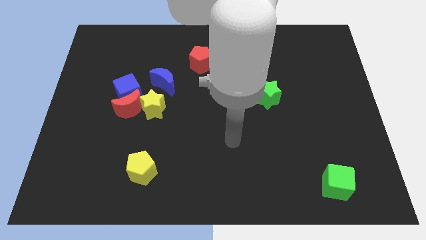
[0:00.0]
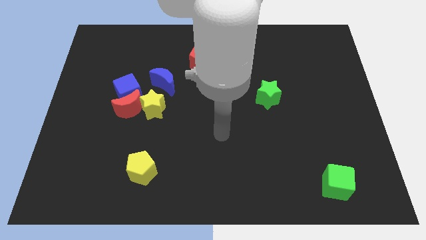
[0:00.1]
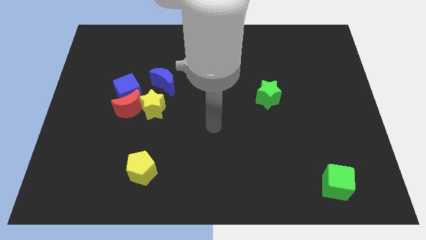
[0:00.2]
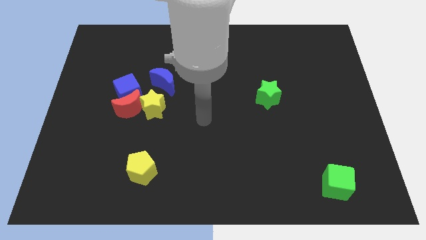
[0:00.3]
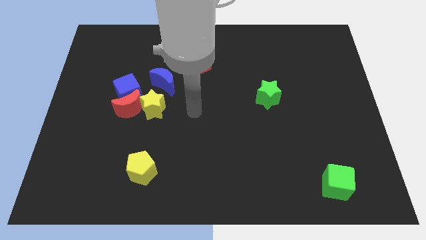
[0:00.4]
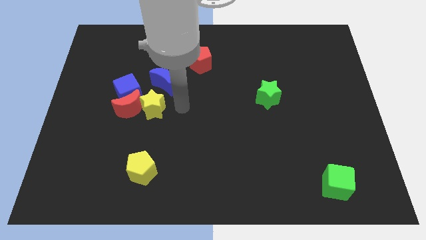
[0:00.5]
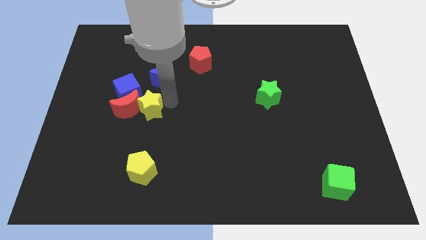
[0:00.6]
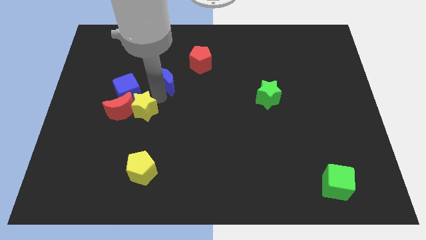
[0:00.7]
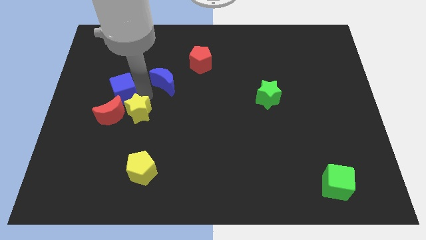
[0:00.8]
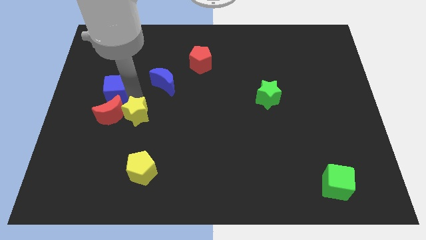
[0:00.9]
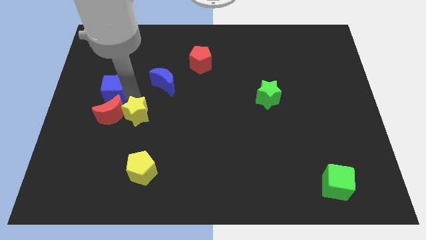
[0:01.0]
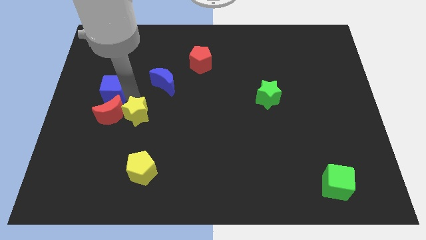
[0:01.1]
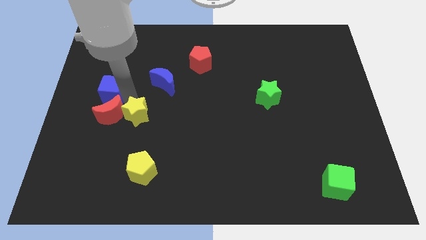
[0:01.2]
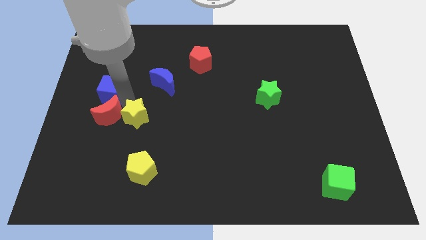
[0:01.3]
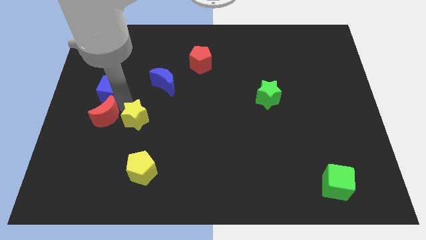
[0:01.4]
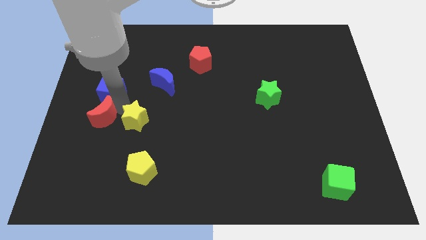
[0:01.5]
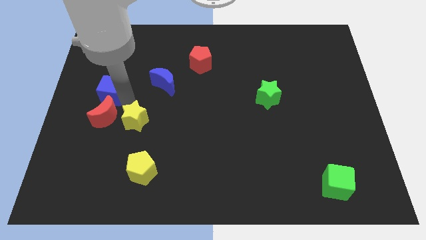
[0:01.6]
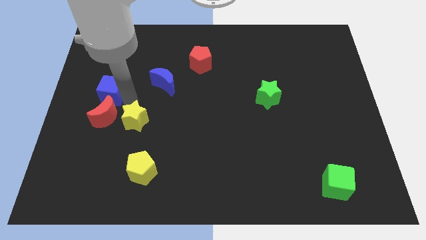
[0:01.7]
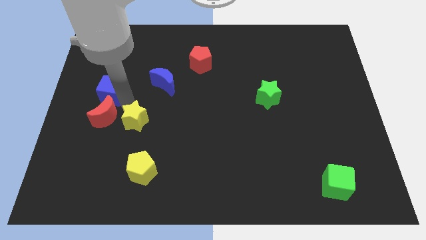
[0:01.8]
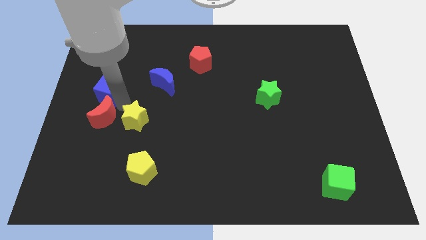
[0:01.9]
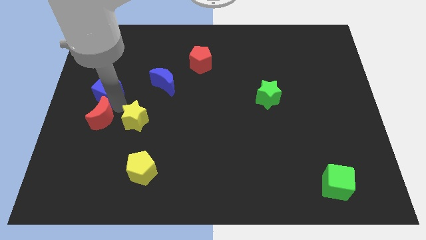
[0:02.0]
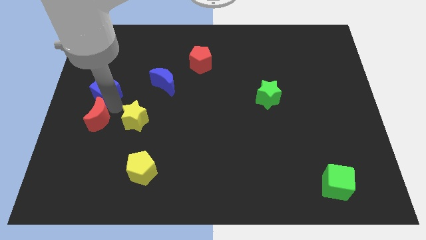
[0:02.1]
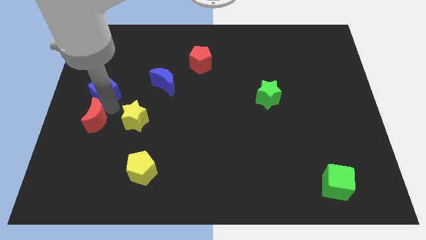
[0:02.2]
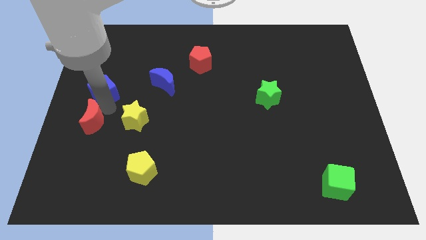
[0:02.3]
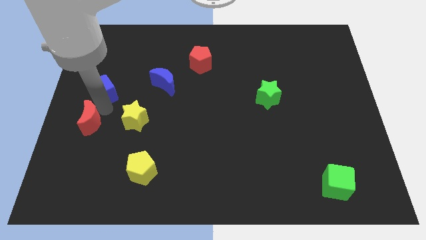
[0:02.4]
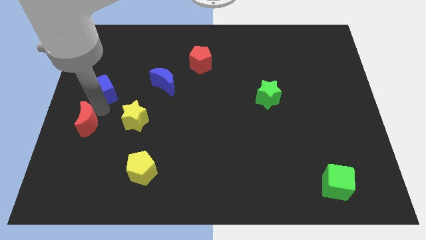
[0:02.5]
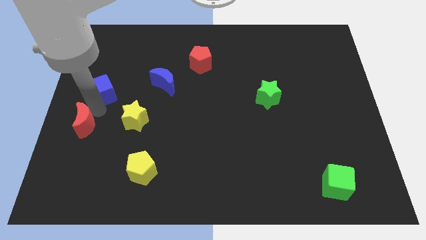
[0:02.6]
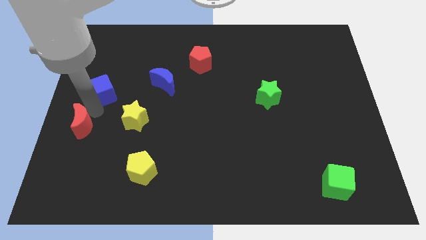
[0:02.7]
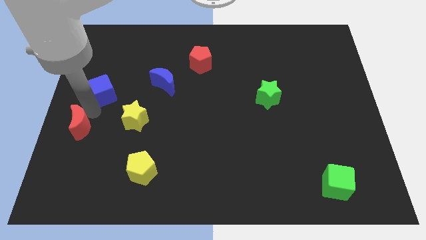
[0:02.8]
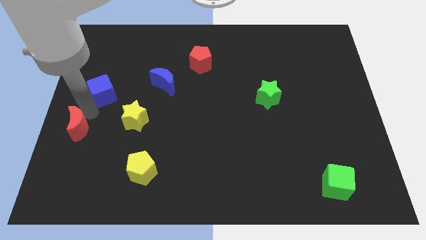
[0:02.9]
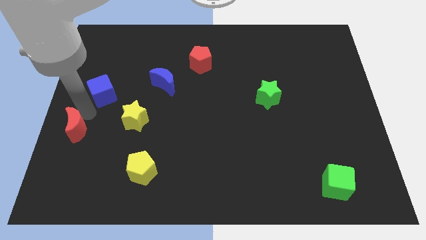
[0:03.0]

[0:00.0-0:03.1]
move the red moon away from the blue cube and yellow star

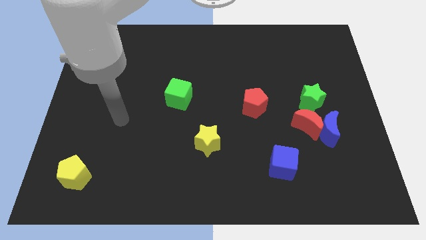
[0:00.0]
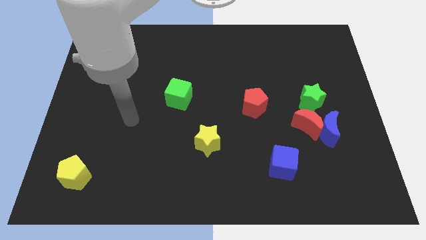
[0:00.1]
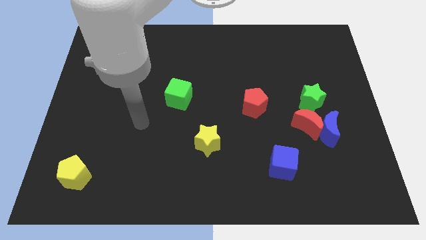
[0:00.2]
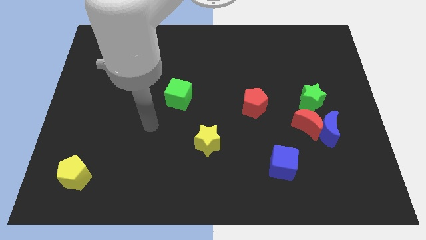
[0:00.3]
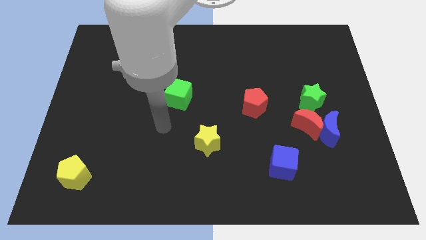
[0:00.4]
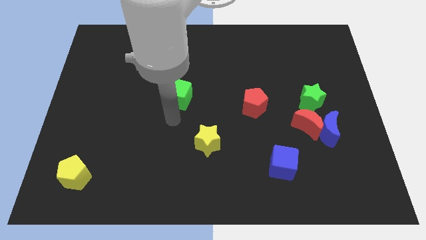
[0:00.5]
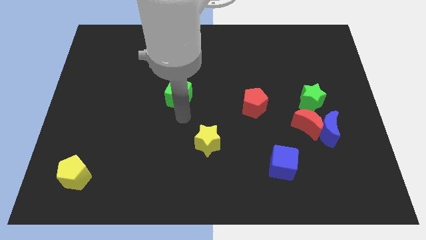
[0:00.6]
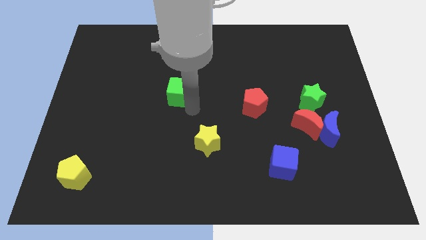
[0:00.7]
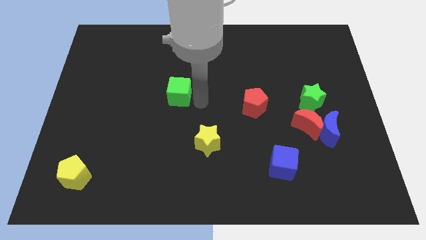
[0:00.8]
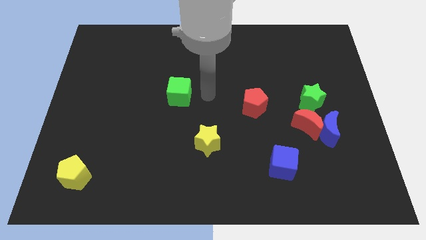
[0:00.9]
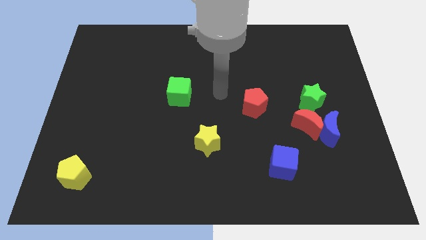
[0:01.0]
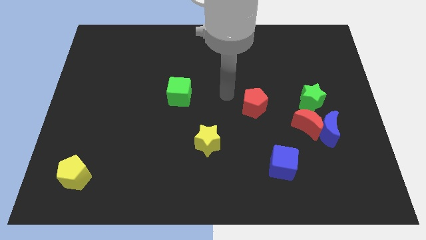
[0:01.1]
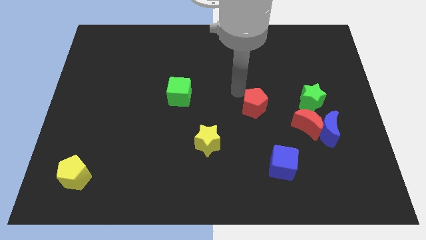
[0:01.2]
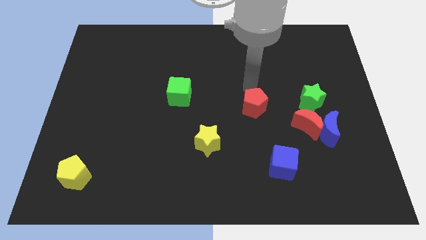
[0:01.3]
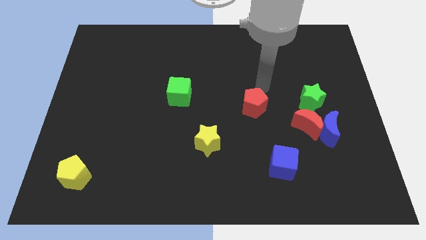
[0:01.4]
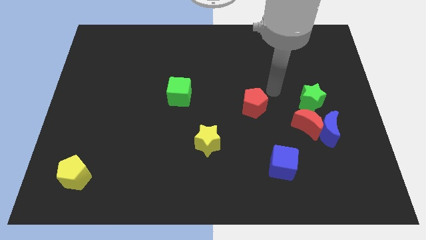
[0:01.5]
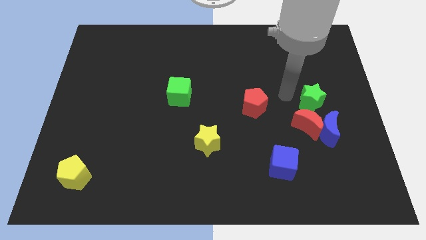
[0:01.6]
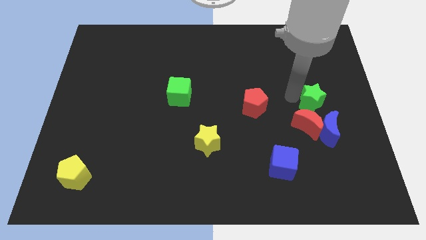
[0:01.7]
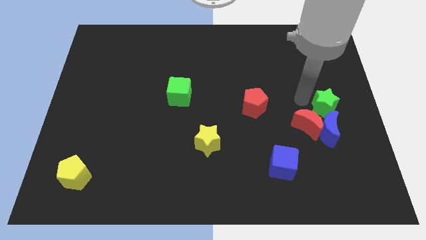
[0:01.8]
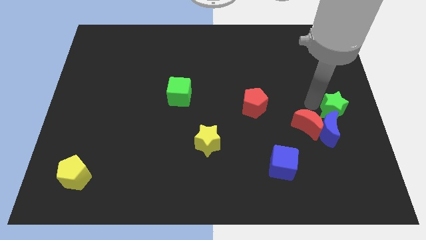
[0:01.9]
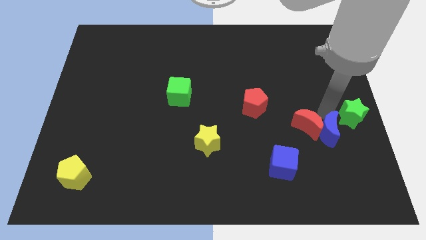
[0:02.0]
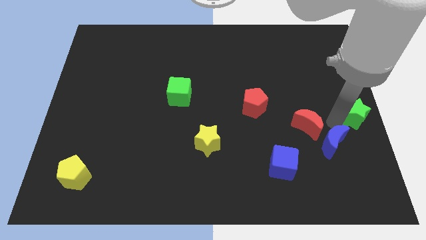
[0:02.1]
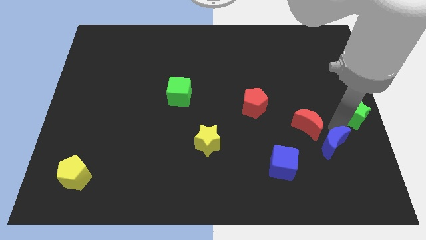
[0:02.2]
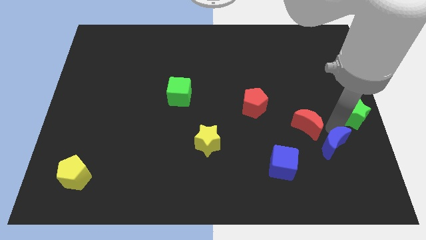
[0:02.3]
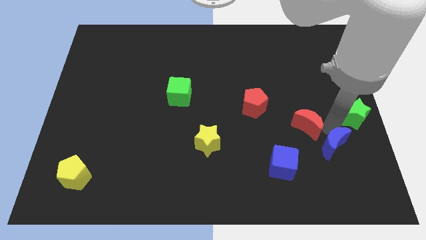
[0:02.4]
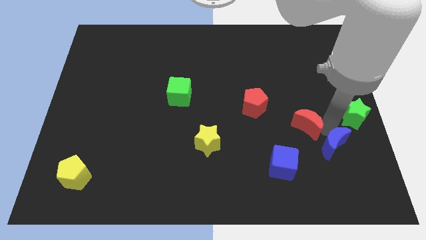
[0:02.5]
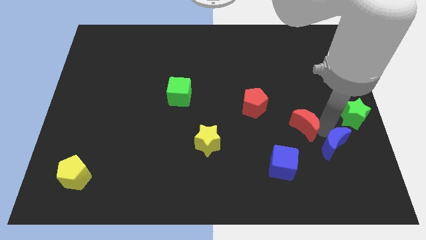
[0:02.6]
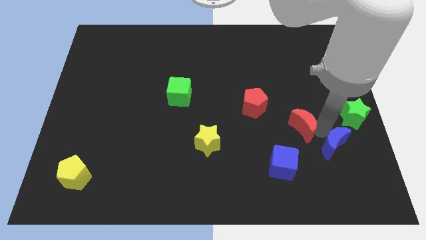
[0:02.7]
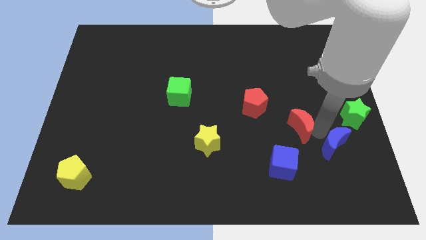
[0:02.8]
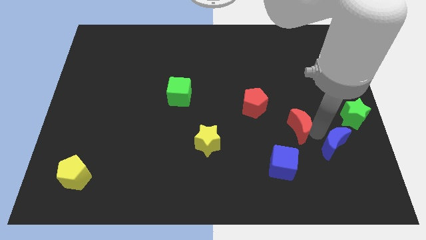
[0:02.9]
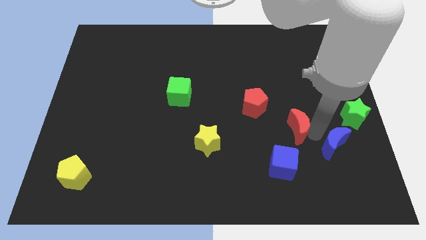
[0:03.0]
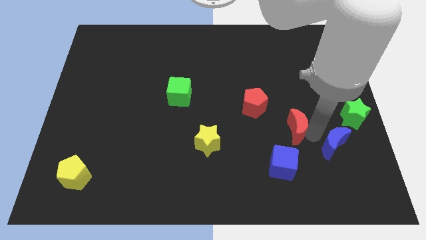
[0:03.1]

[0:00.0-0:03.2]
pull the red moon apart from the blue moon and green star

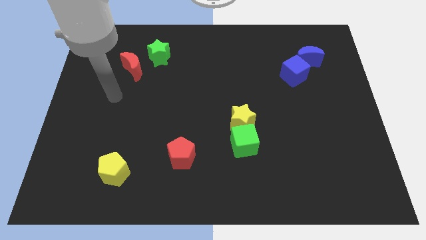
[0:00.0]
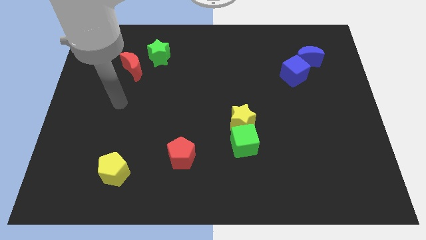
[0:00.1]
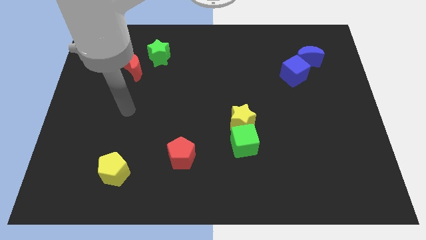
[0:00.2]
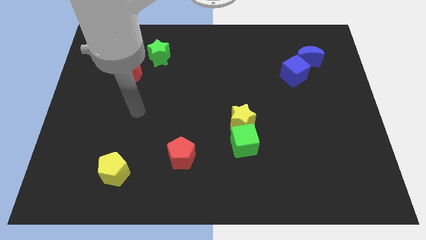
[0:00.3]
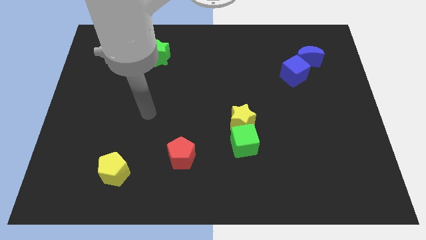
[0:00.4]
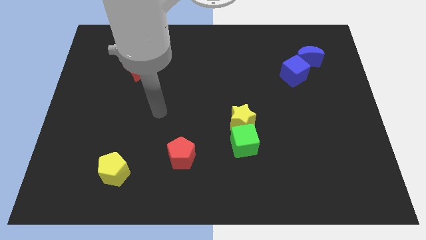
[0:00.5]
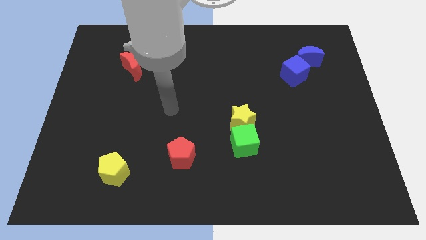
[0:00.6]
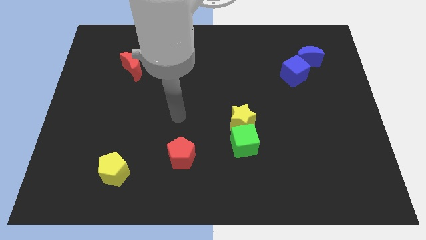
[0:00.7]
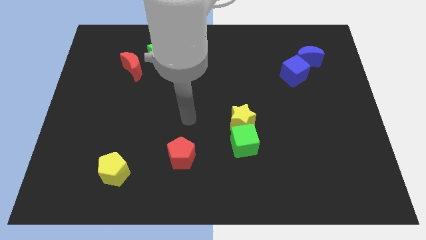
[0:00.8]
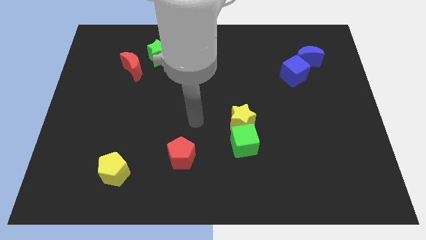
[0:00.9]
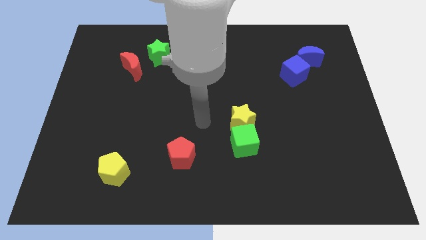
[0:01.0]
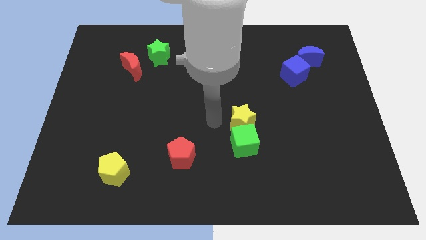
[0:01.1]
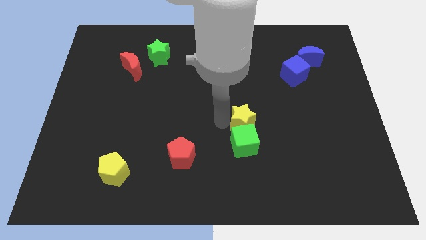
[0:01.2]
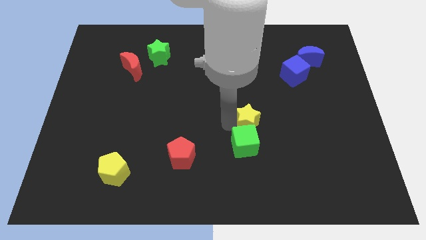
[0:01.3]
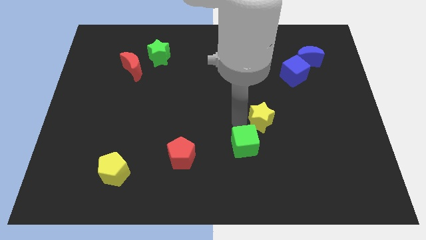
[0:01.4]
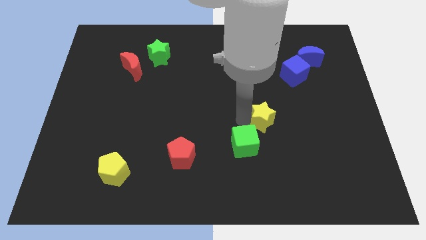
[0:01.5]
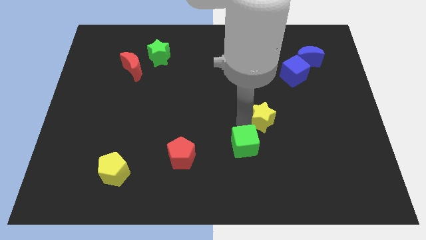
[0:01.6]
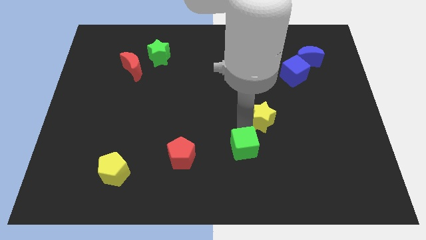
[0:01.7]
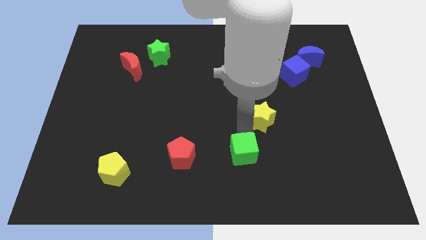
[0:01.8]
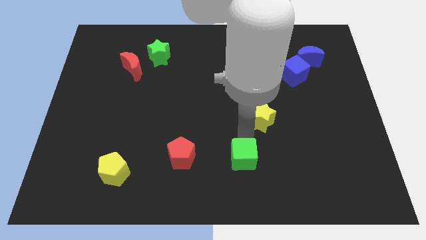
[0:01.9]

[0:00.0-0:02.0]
separate the green cube from the yellow star

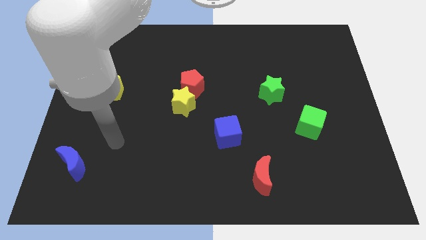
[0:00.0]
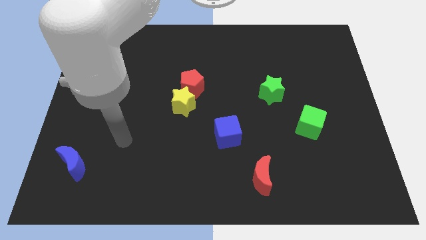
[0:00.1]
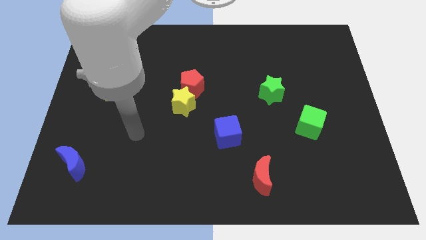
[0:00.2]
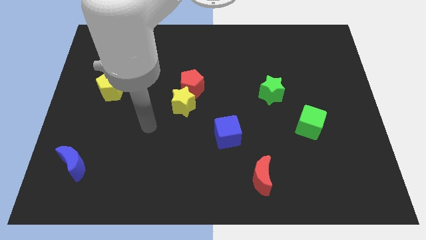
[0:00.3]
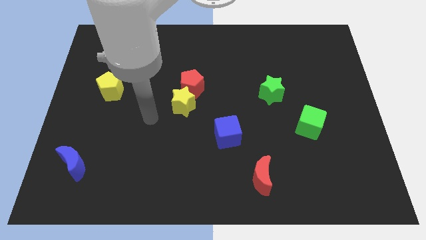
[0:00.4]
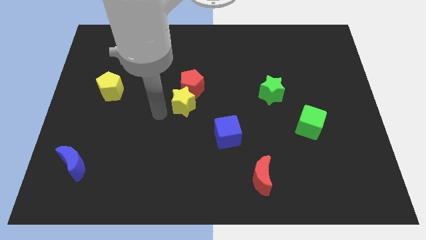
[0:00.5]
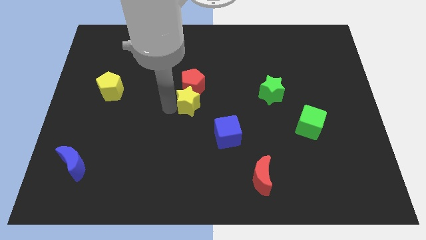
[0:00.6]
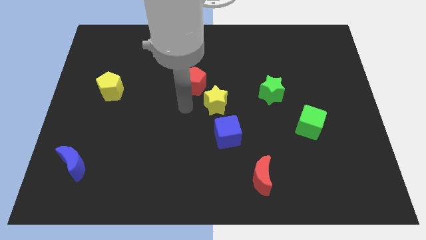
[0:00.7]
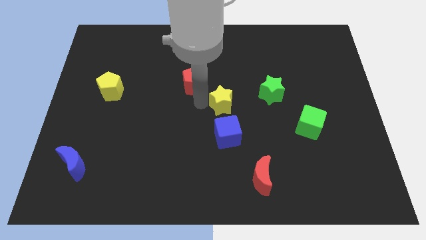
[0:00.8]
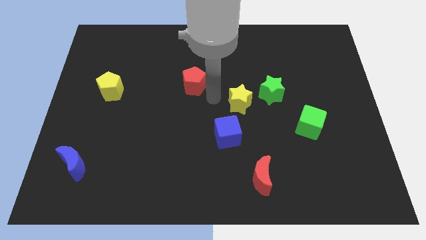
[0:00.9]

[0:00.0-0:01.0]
separate the red pentagon from the yellow star
